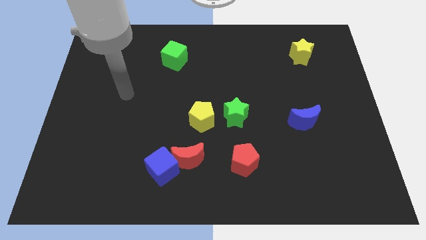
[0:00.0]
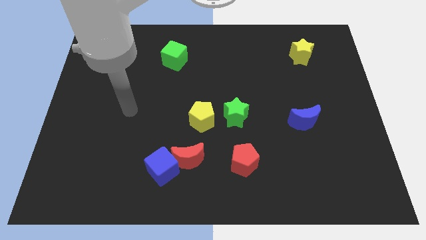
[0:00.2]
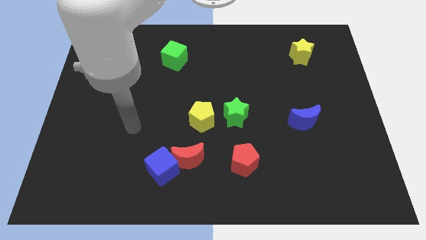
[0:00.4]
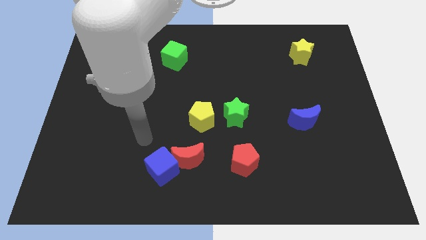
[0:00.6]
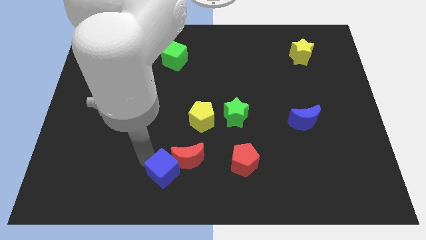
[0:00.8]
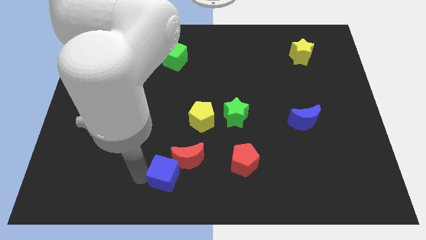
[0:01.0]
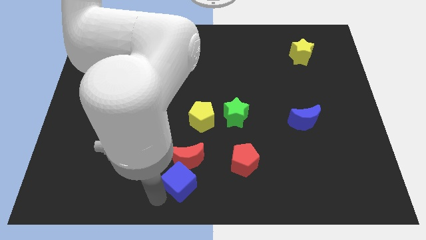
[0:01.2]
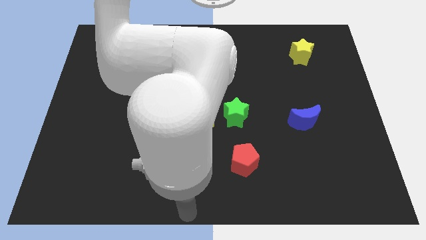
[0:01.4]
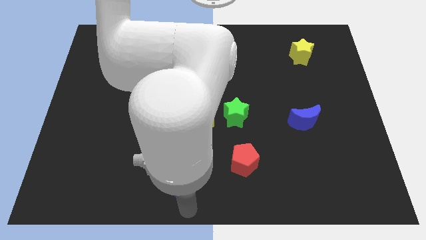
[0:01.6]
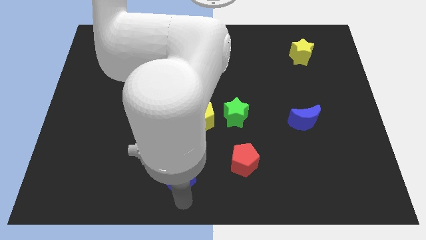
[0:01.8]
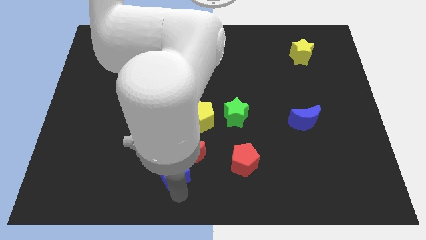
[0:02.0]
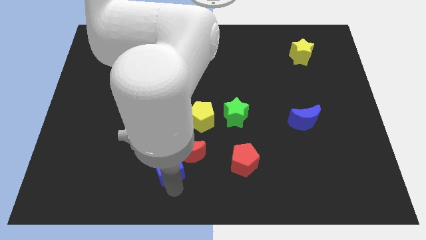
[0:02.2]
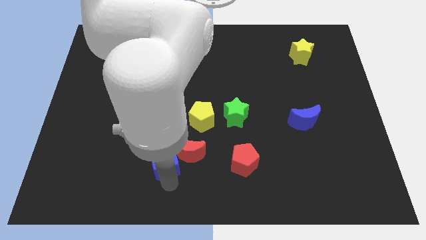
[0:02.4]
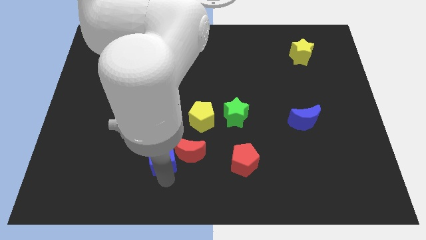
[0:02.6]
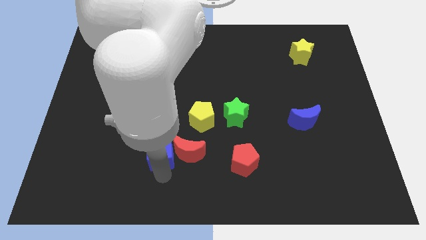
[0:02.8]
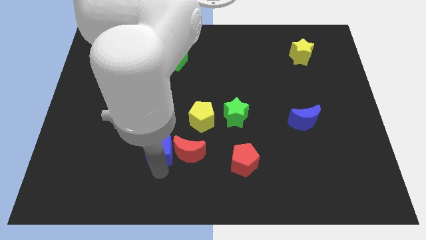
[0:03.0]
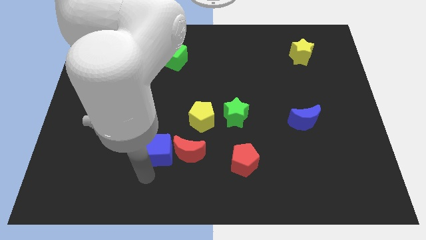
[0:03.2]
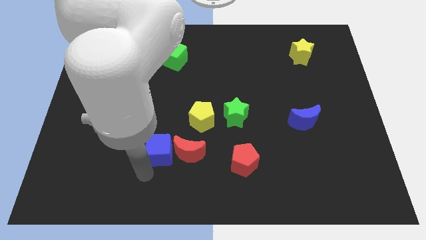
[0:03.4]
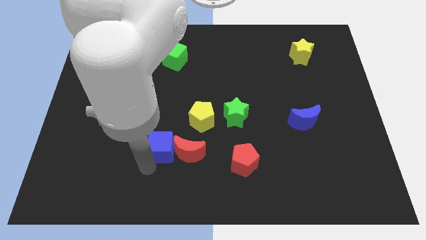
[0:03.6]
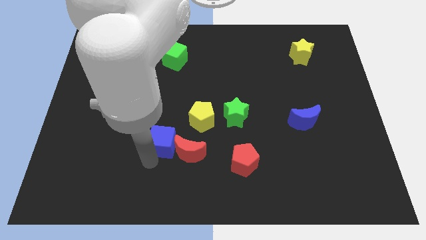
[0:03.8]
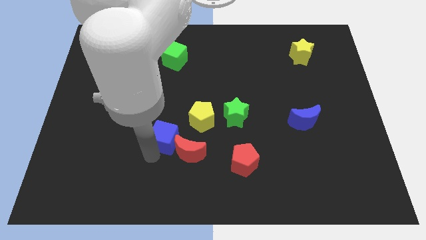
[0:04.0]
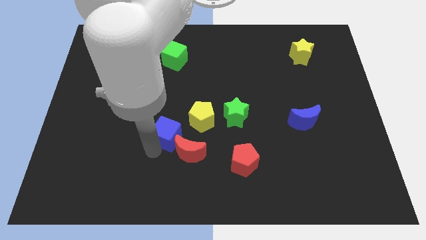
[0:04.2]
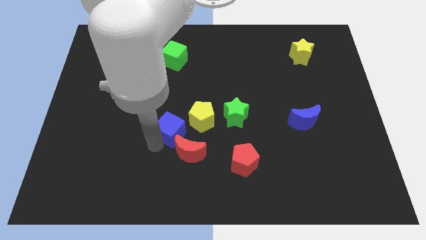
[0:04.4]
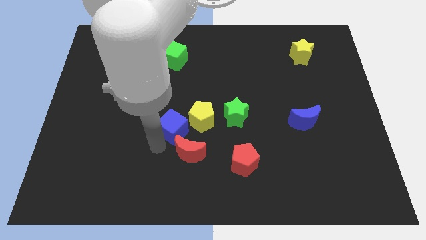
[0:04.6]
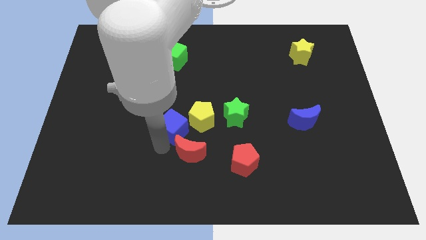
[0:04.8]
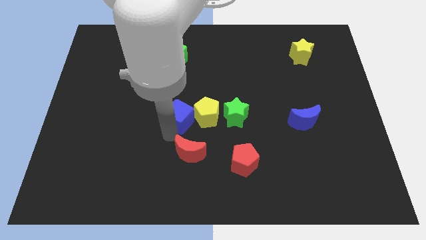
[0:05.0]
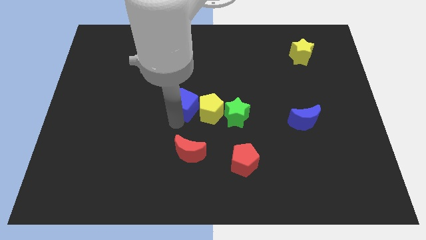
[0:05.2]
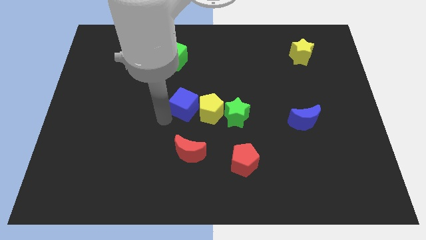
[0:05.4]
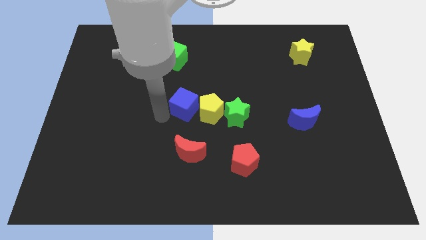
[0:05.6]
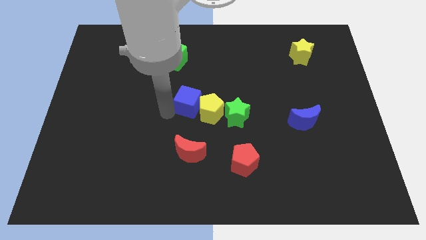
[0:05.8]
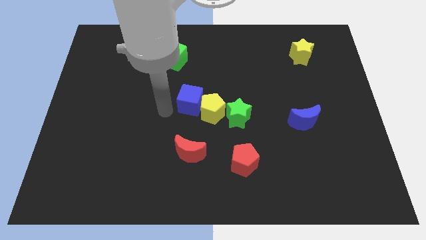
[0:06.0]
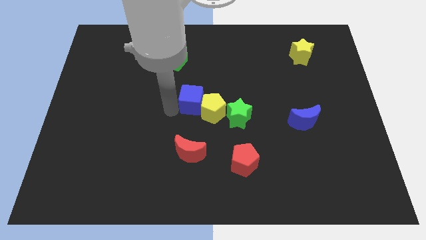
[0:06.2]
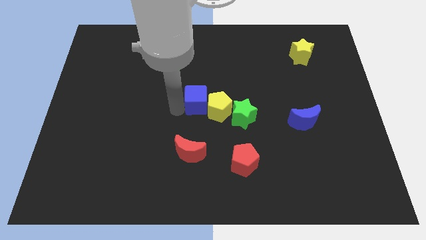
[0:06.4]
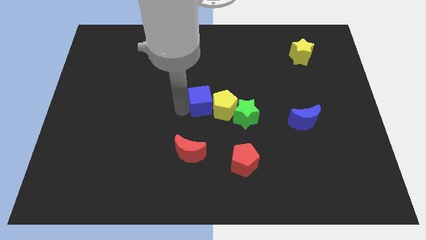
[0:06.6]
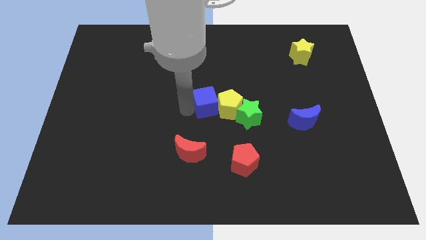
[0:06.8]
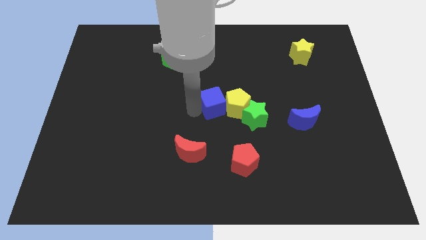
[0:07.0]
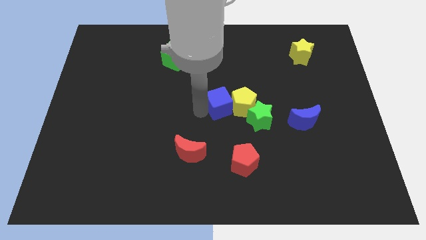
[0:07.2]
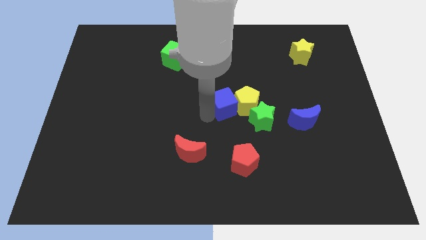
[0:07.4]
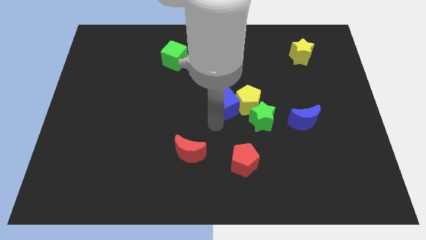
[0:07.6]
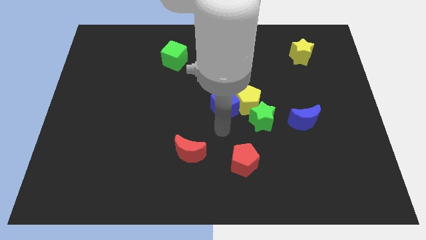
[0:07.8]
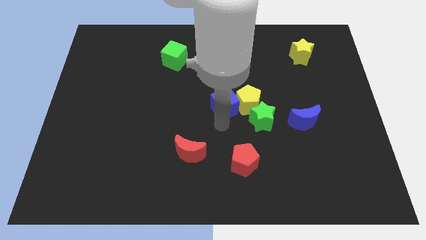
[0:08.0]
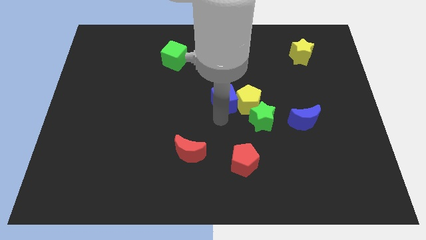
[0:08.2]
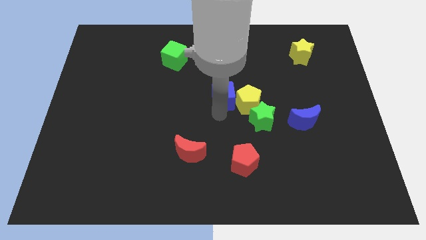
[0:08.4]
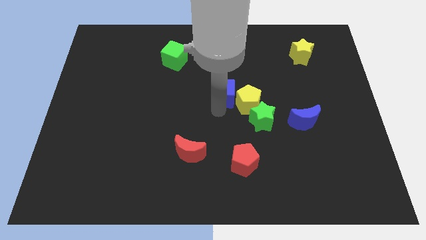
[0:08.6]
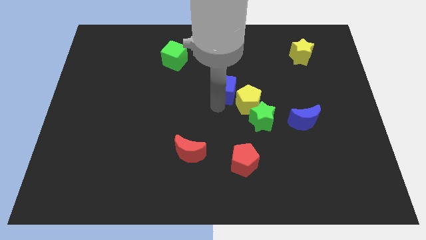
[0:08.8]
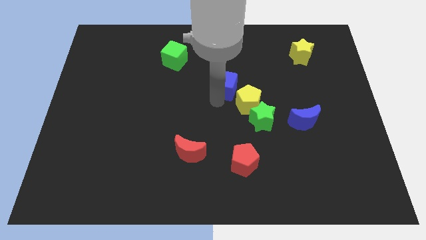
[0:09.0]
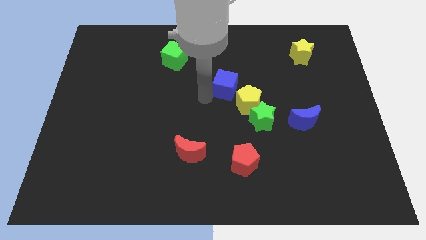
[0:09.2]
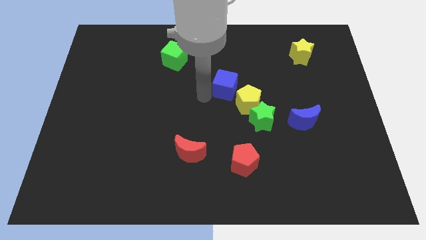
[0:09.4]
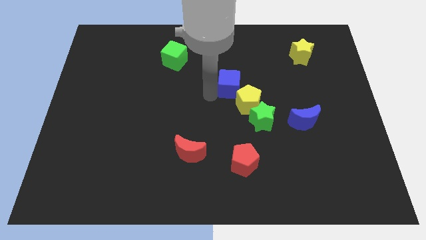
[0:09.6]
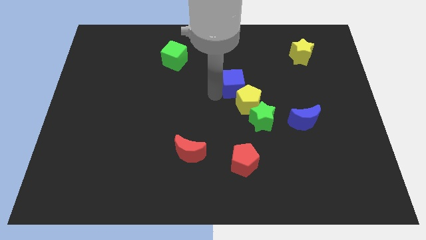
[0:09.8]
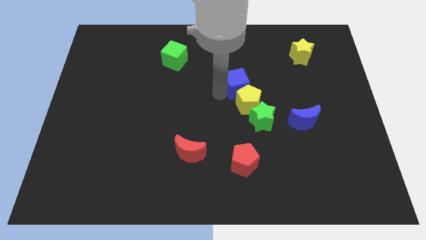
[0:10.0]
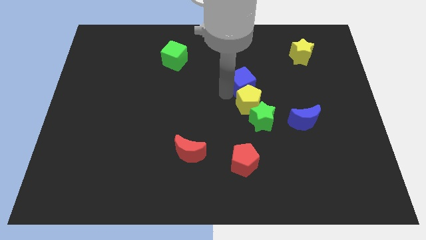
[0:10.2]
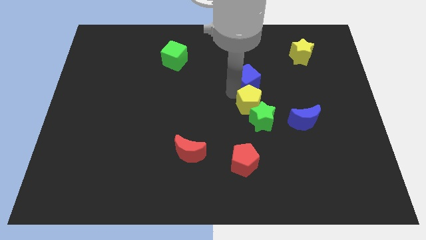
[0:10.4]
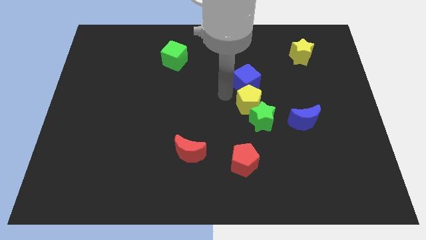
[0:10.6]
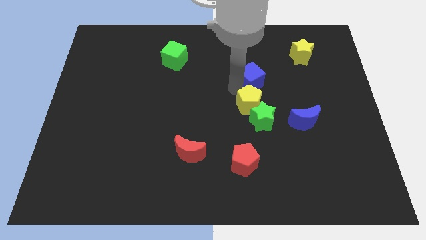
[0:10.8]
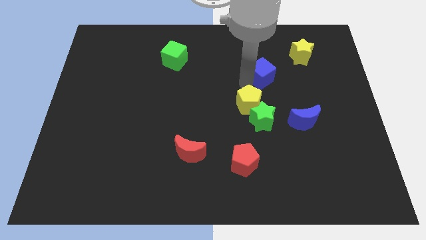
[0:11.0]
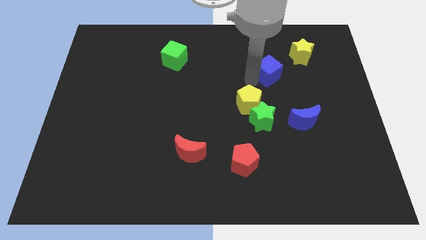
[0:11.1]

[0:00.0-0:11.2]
move the blue cube diagonally down and to the left of the yellow star

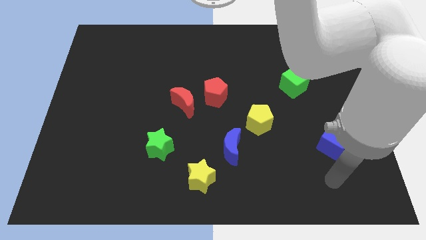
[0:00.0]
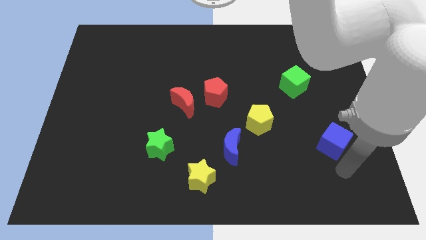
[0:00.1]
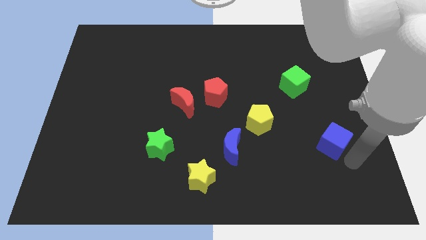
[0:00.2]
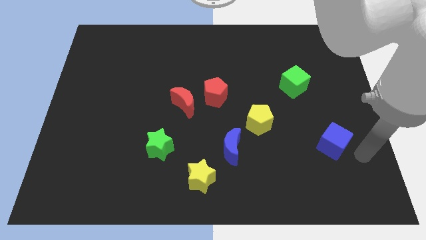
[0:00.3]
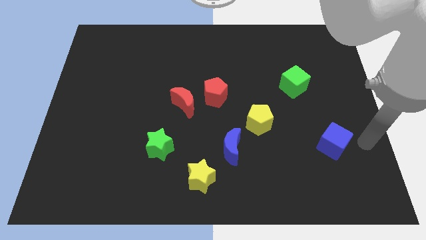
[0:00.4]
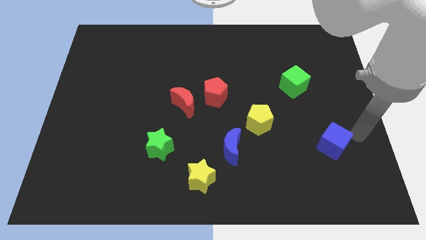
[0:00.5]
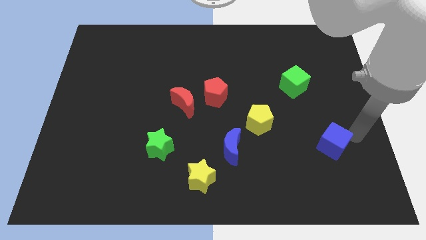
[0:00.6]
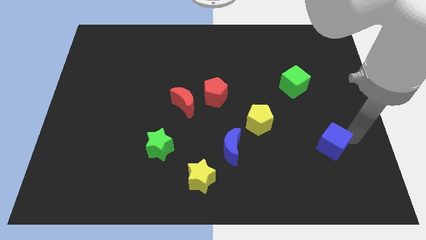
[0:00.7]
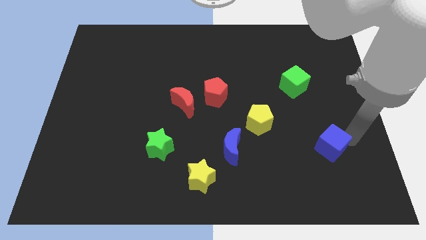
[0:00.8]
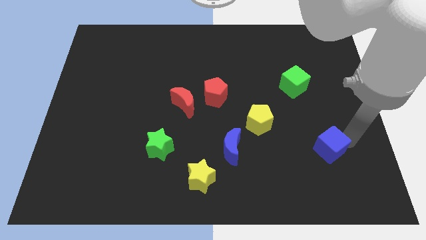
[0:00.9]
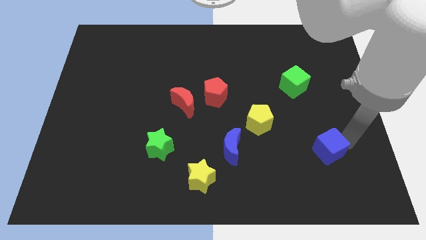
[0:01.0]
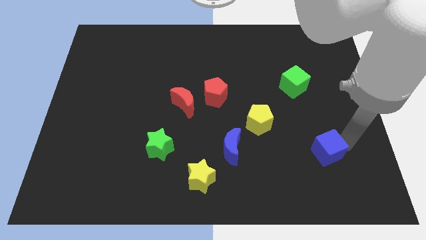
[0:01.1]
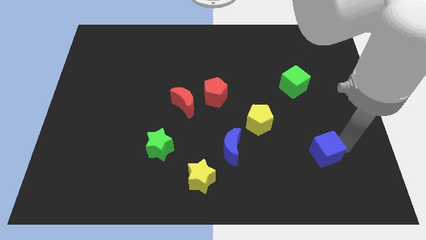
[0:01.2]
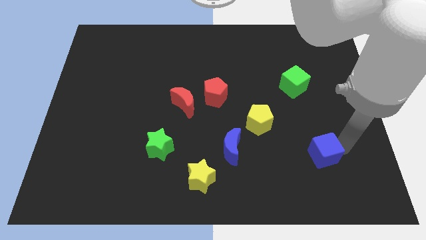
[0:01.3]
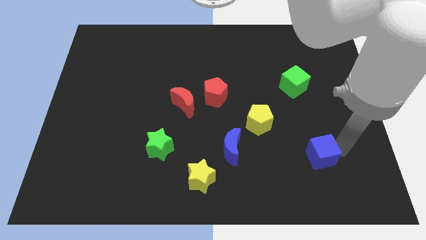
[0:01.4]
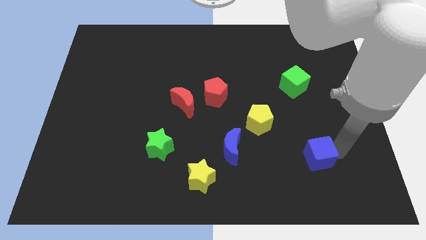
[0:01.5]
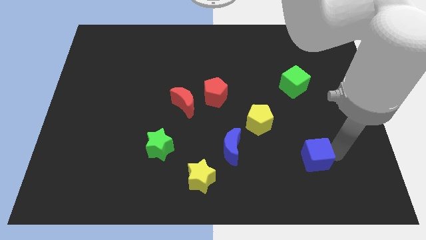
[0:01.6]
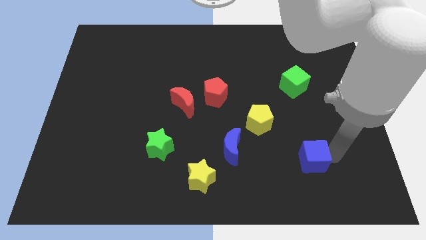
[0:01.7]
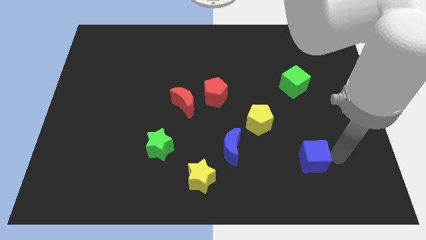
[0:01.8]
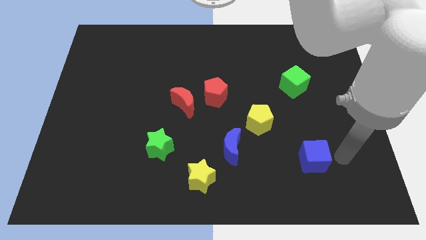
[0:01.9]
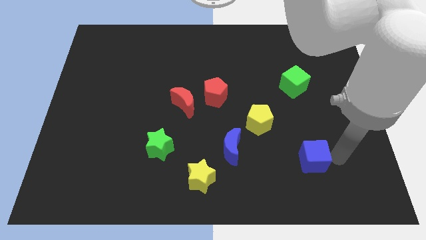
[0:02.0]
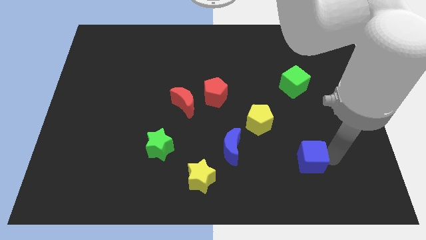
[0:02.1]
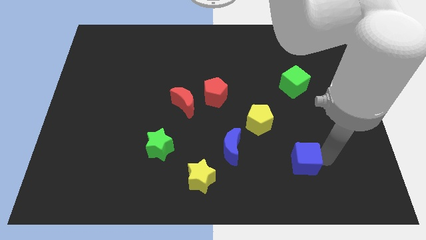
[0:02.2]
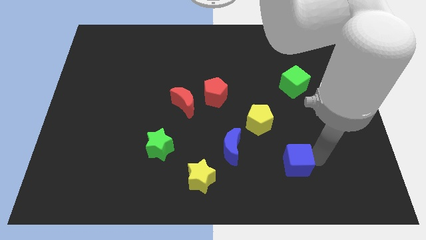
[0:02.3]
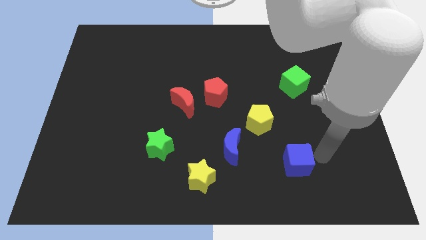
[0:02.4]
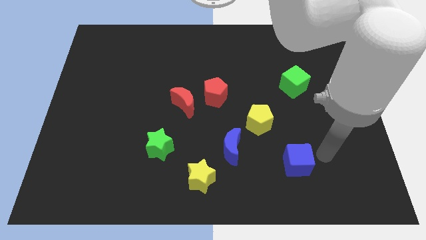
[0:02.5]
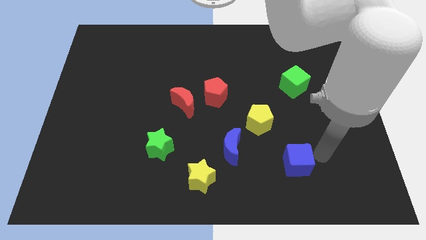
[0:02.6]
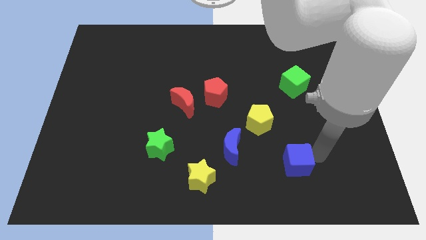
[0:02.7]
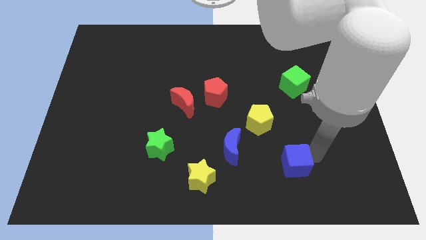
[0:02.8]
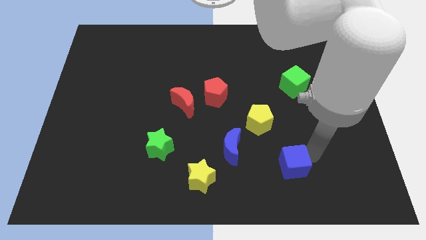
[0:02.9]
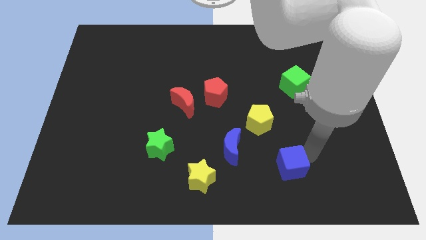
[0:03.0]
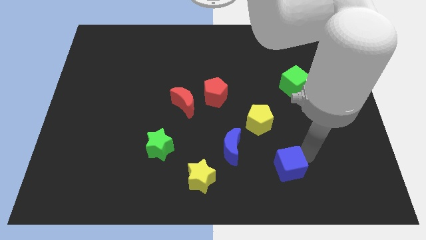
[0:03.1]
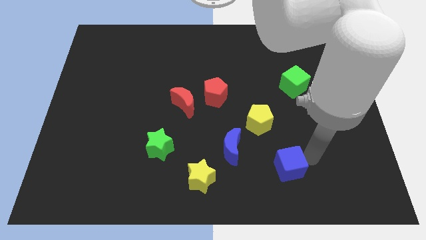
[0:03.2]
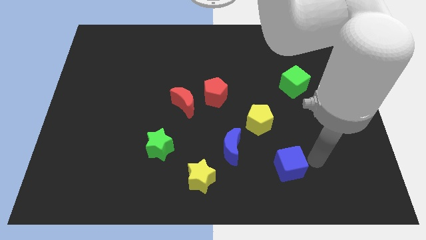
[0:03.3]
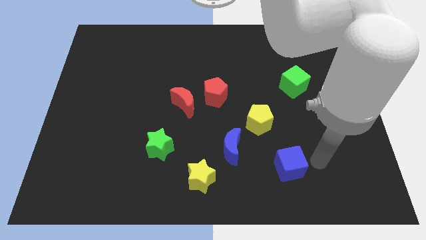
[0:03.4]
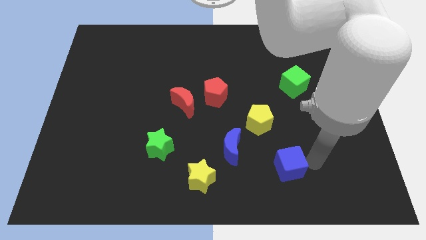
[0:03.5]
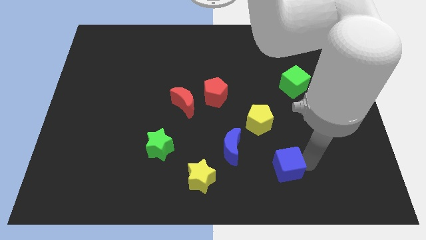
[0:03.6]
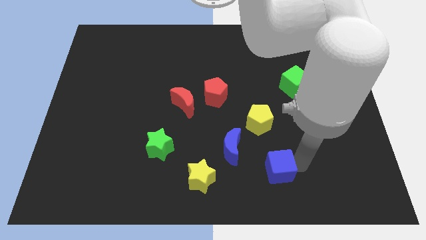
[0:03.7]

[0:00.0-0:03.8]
push the blue cube to the bottom right of the blue moon
